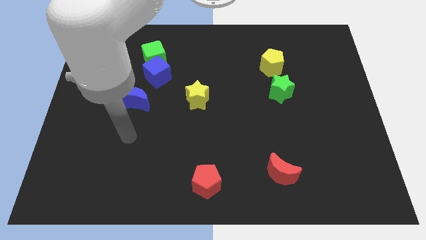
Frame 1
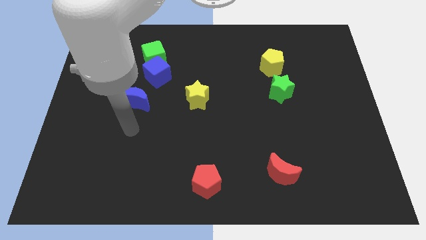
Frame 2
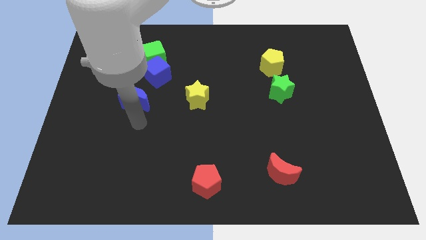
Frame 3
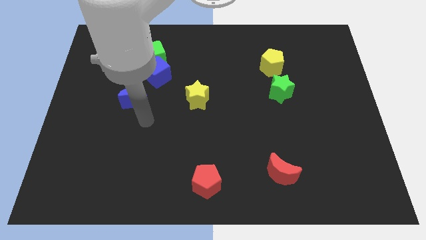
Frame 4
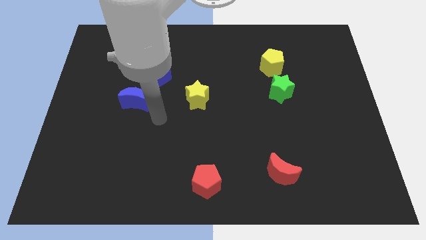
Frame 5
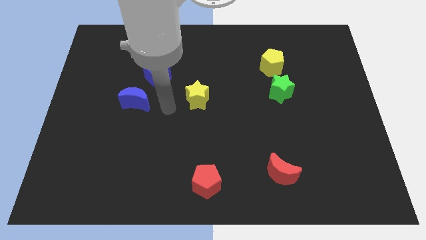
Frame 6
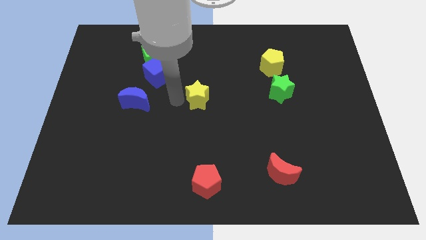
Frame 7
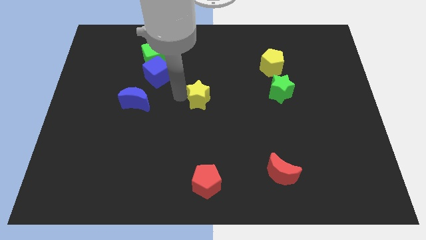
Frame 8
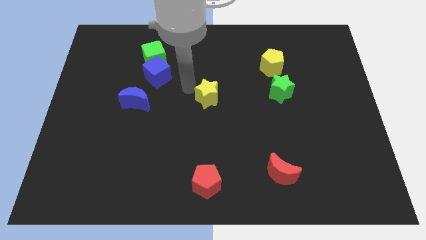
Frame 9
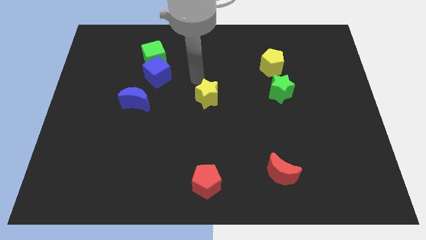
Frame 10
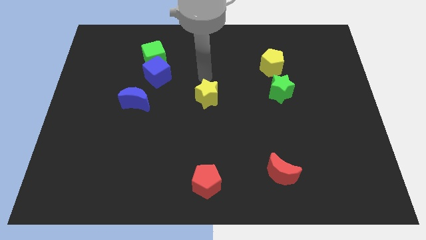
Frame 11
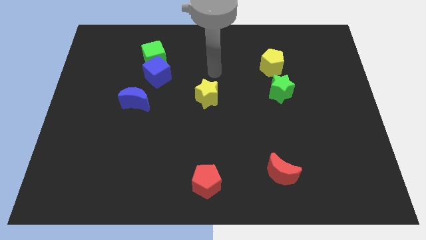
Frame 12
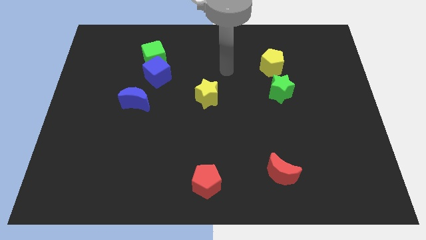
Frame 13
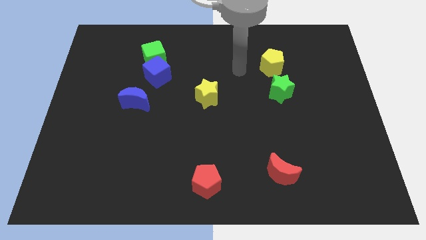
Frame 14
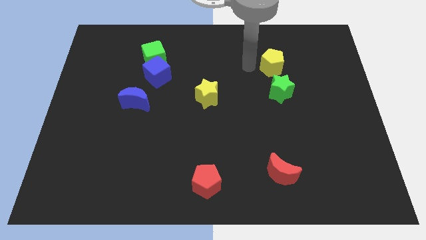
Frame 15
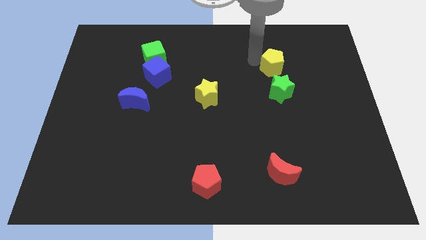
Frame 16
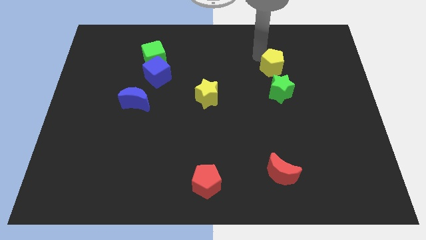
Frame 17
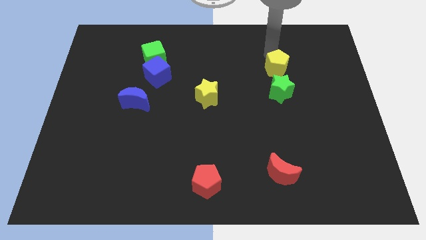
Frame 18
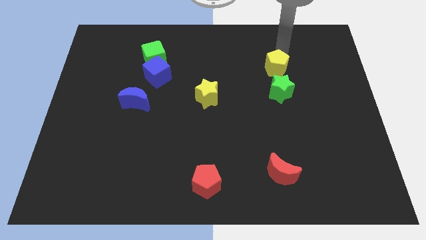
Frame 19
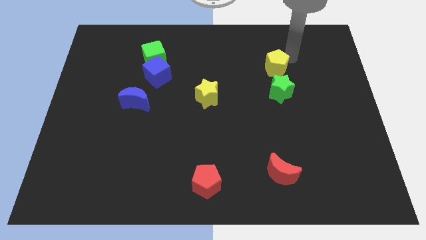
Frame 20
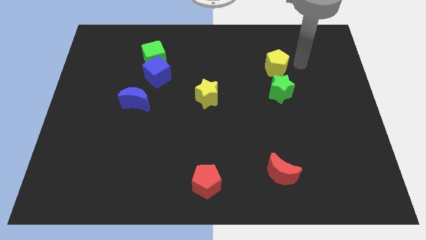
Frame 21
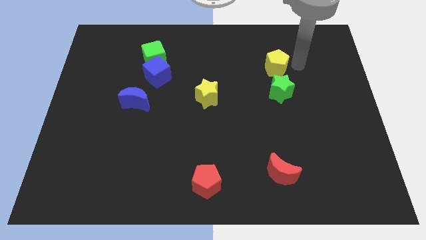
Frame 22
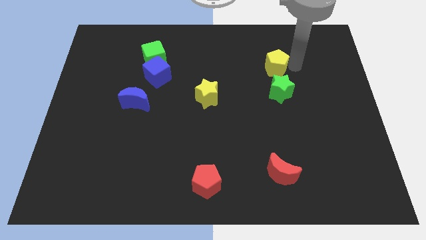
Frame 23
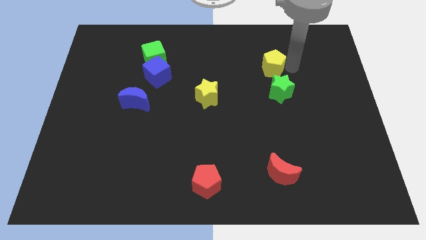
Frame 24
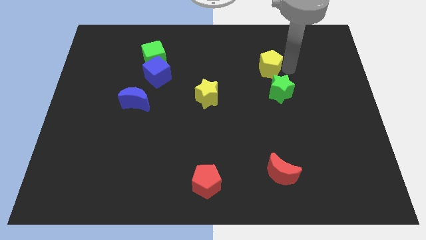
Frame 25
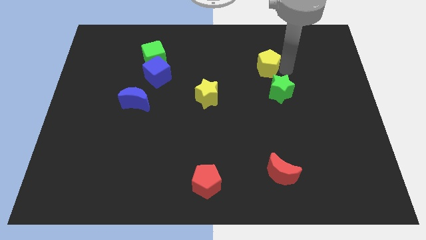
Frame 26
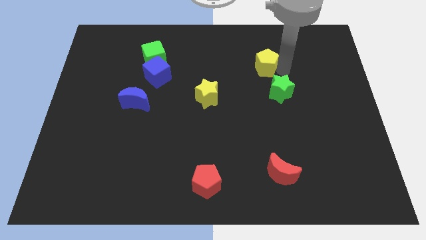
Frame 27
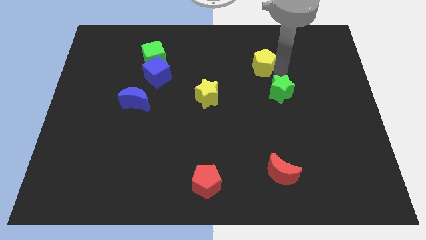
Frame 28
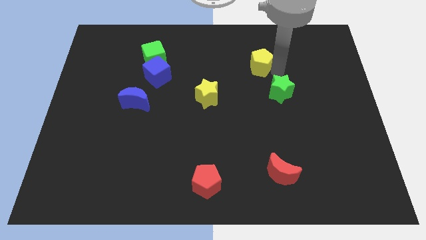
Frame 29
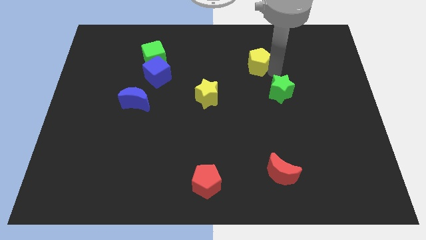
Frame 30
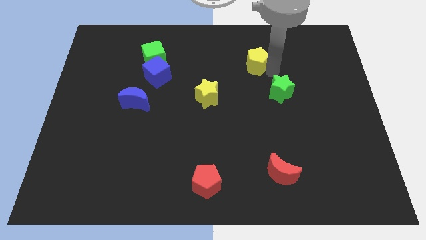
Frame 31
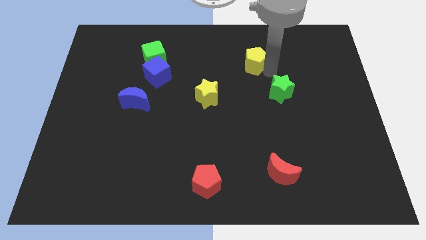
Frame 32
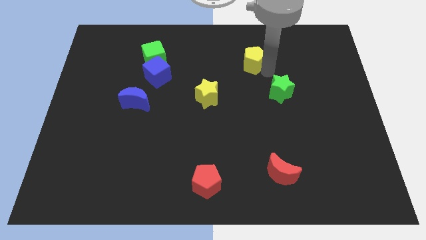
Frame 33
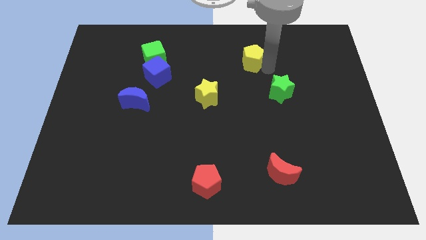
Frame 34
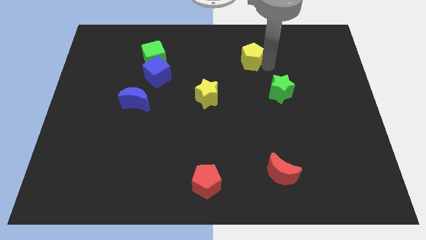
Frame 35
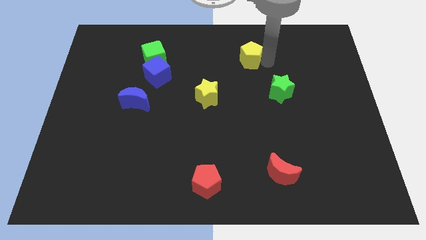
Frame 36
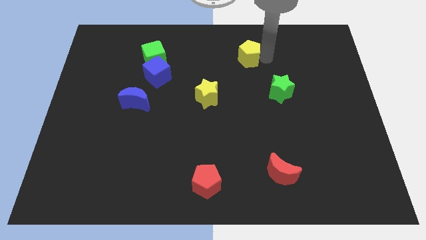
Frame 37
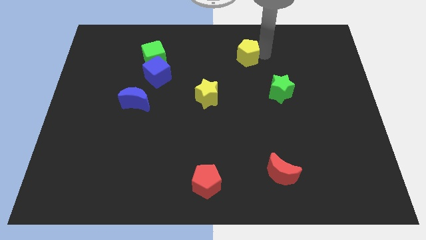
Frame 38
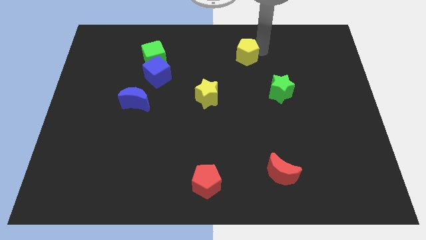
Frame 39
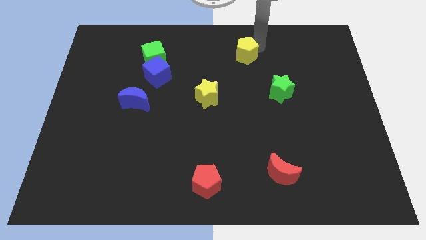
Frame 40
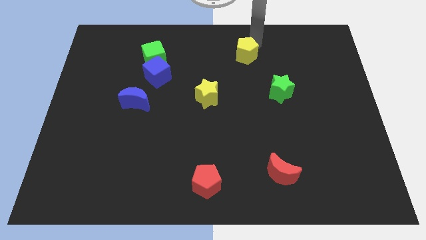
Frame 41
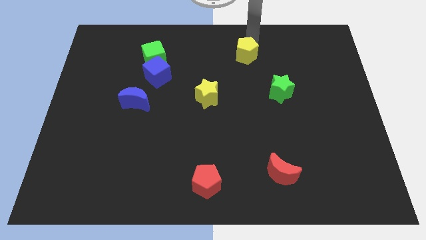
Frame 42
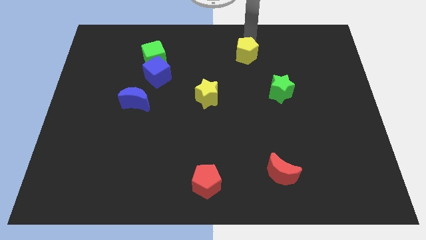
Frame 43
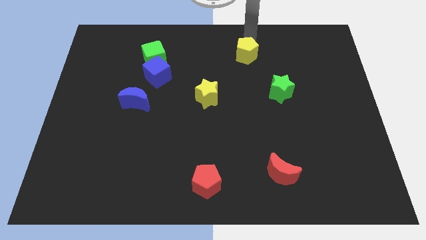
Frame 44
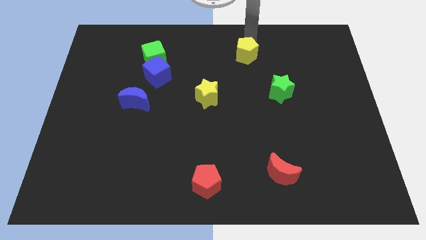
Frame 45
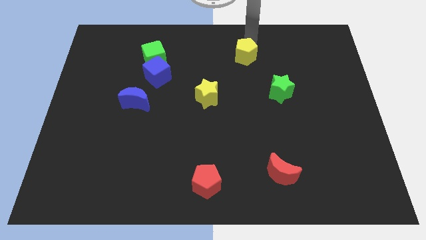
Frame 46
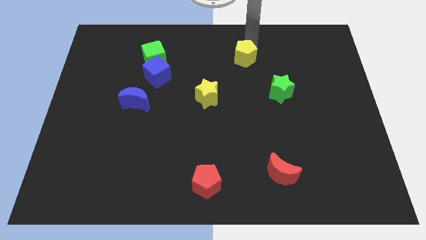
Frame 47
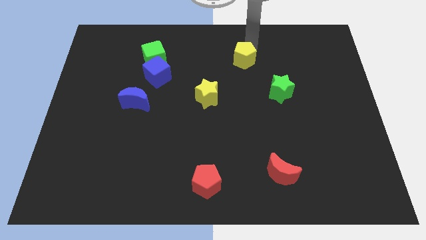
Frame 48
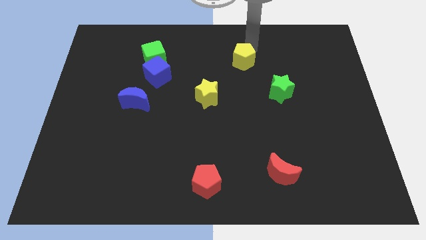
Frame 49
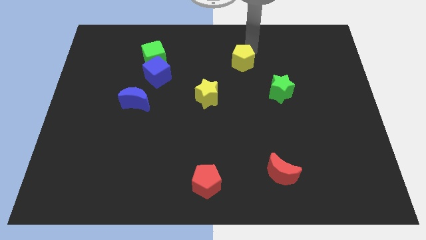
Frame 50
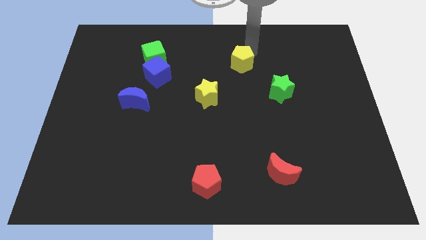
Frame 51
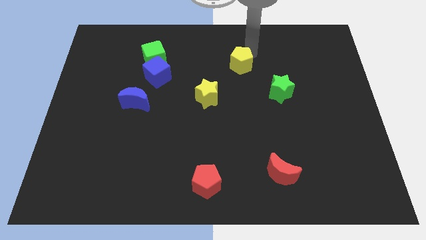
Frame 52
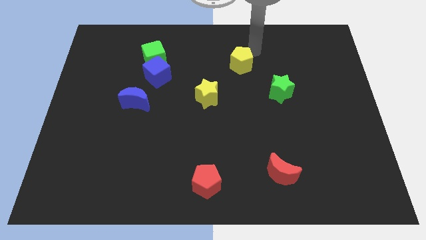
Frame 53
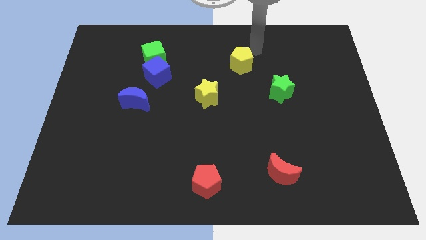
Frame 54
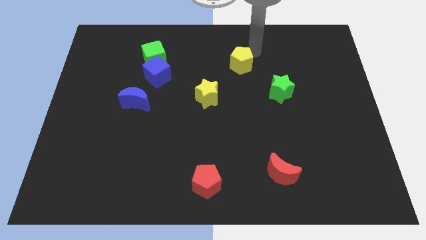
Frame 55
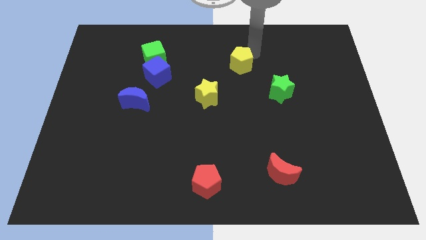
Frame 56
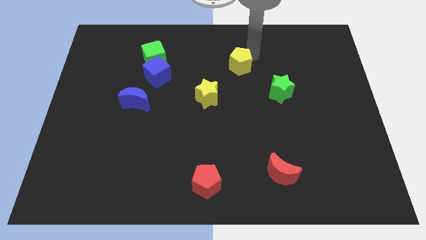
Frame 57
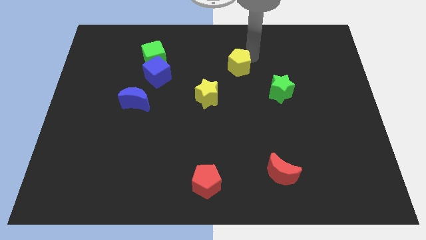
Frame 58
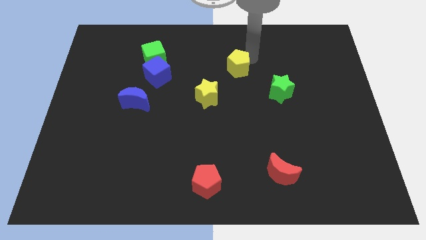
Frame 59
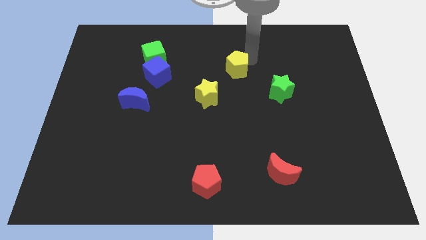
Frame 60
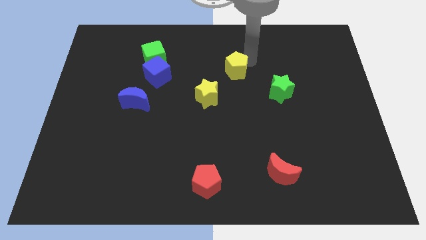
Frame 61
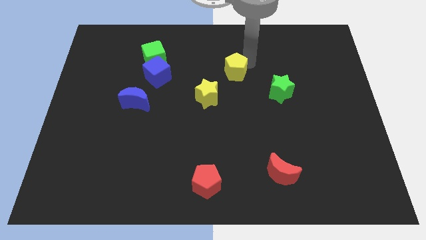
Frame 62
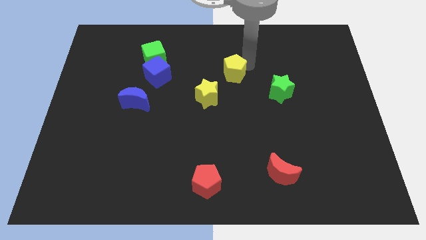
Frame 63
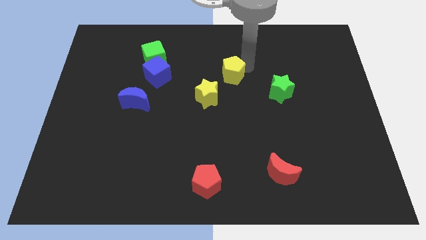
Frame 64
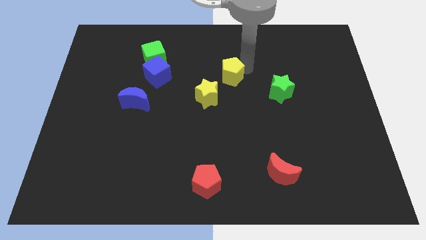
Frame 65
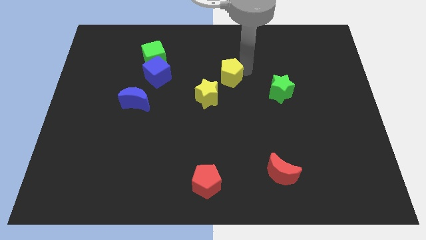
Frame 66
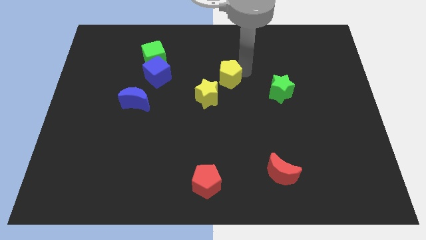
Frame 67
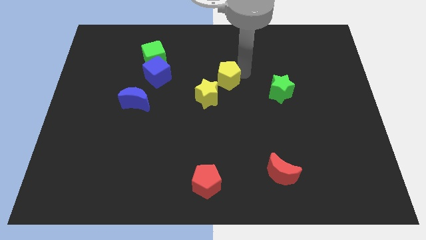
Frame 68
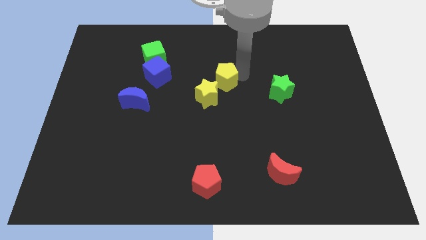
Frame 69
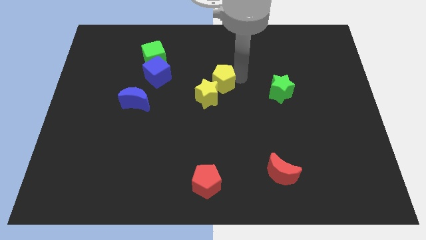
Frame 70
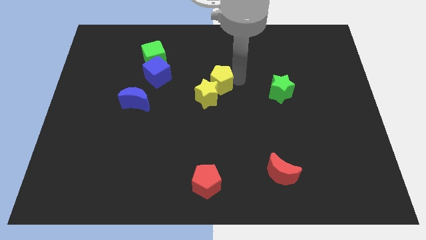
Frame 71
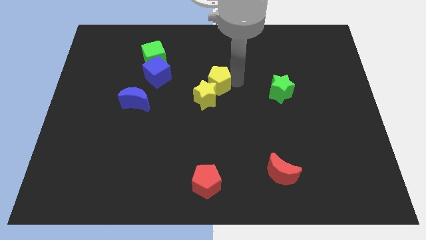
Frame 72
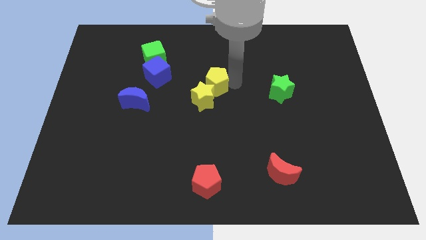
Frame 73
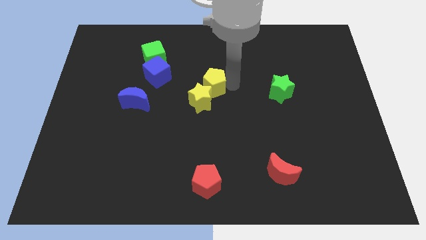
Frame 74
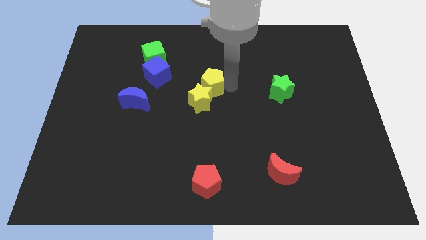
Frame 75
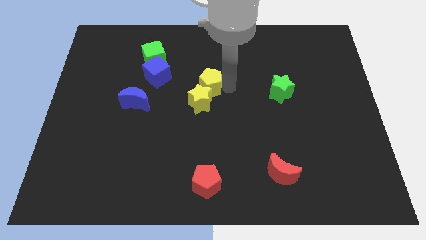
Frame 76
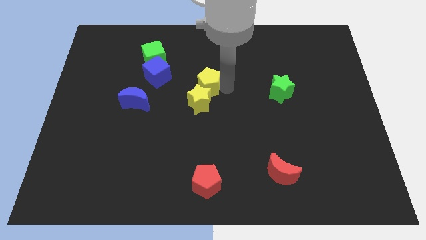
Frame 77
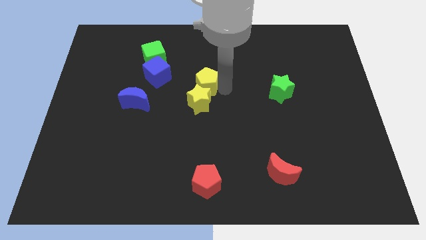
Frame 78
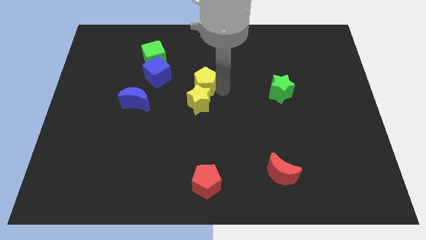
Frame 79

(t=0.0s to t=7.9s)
slide the yellow pentagon diagonally up and to the left of the yellow star
